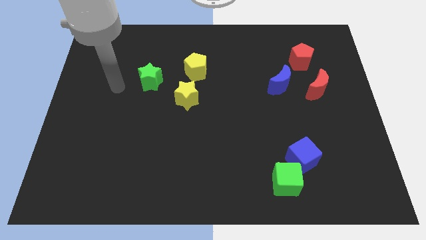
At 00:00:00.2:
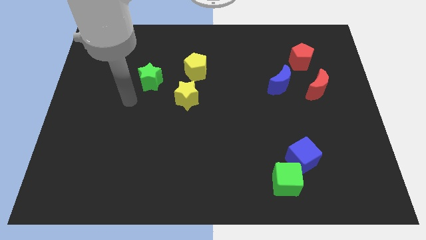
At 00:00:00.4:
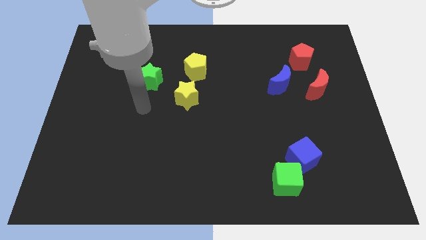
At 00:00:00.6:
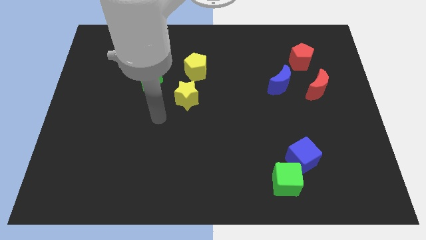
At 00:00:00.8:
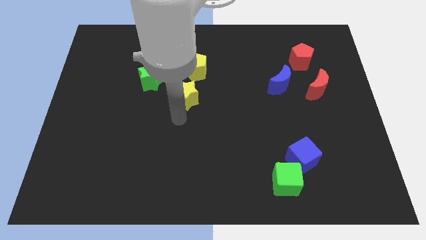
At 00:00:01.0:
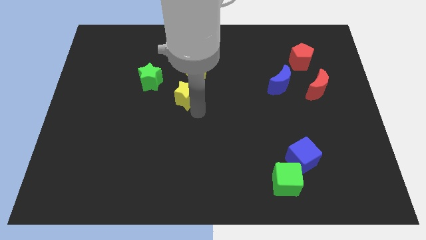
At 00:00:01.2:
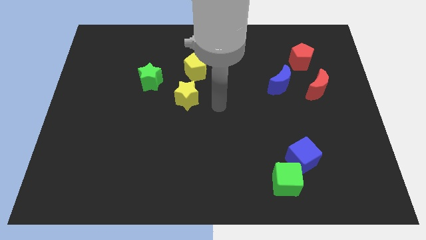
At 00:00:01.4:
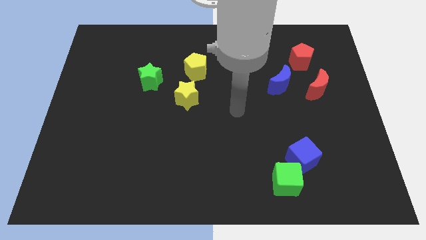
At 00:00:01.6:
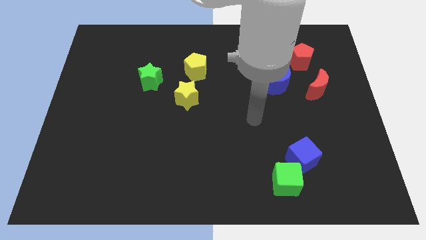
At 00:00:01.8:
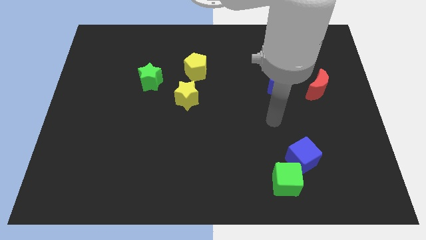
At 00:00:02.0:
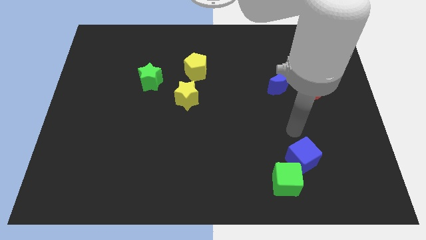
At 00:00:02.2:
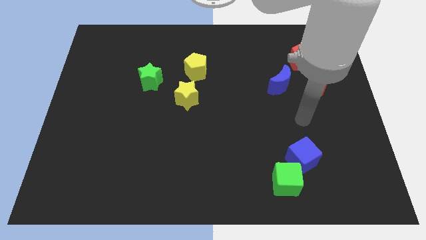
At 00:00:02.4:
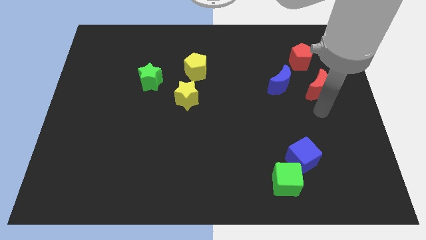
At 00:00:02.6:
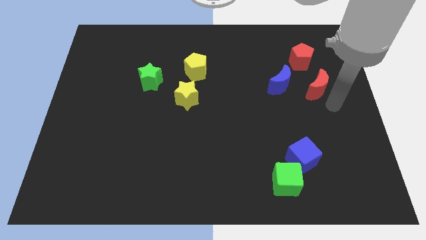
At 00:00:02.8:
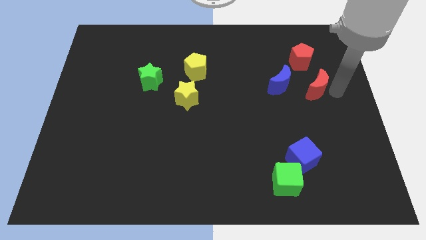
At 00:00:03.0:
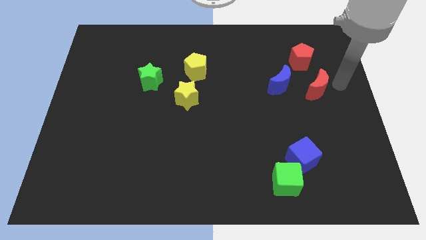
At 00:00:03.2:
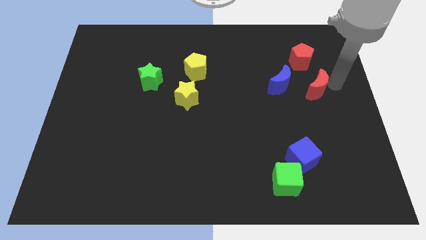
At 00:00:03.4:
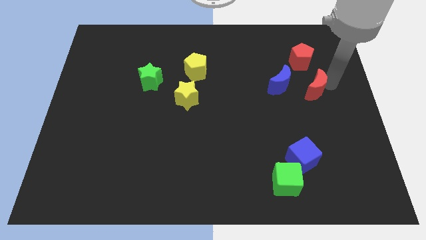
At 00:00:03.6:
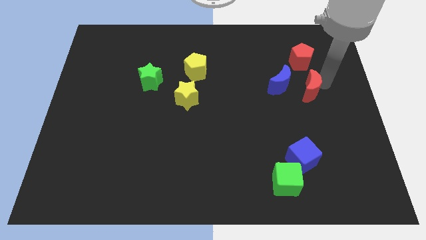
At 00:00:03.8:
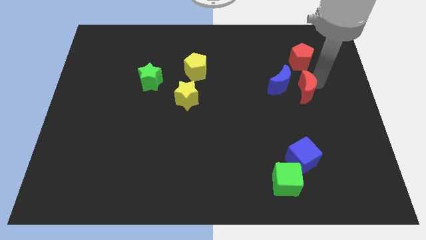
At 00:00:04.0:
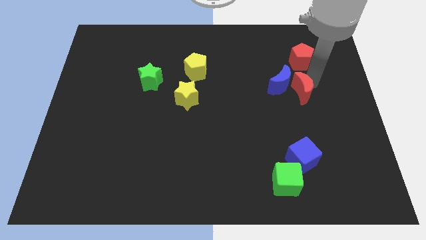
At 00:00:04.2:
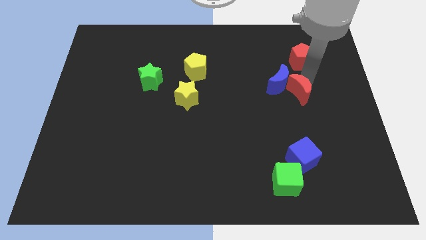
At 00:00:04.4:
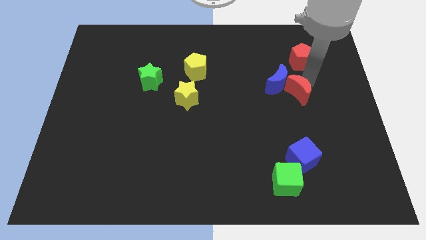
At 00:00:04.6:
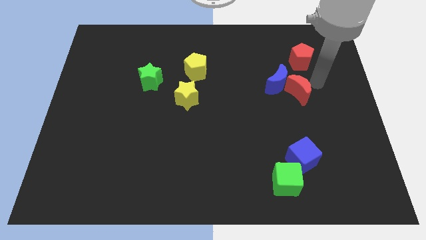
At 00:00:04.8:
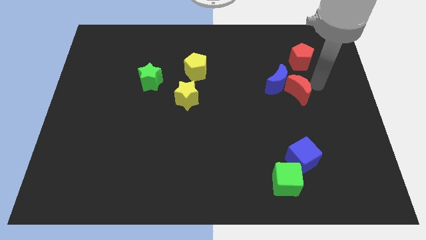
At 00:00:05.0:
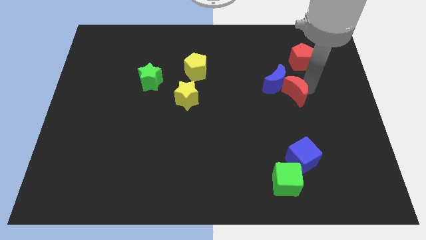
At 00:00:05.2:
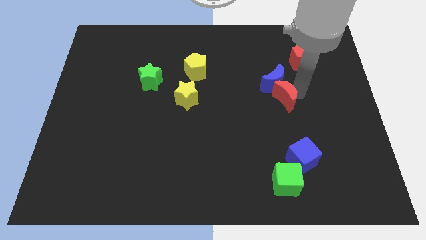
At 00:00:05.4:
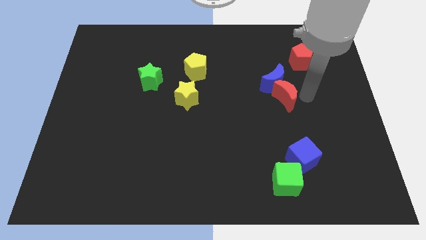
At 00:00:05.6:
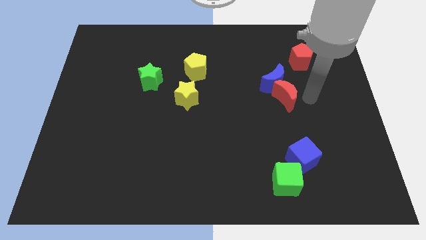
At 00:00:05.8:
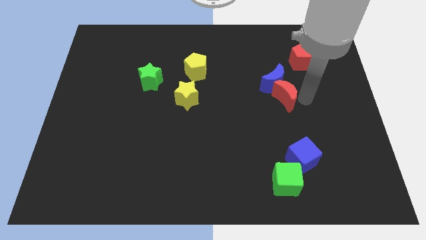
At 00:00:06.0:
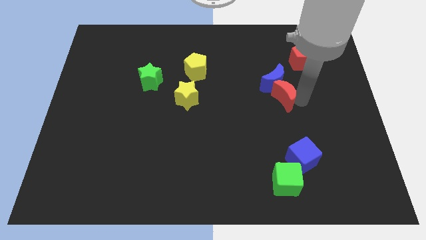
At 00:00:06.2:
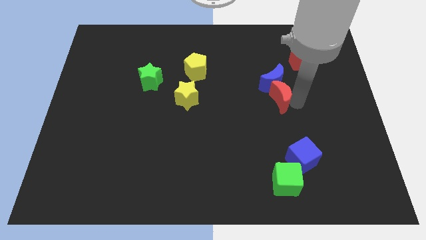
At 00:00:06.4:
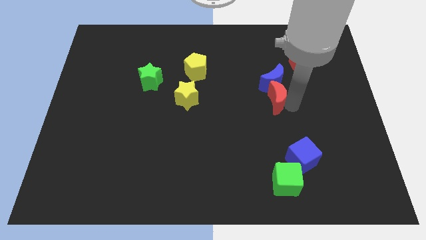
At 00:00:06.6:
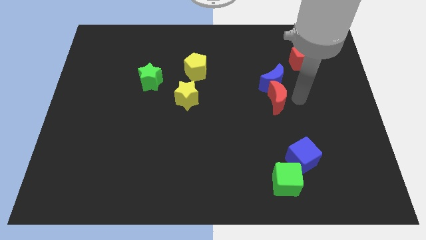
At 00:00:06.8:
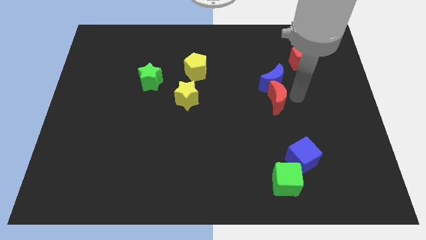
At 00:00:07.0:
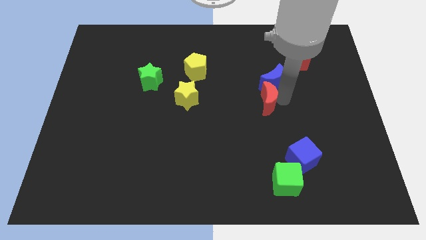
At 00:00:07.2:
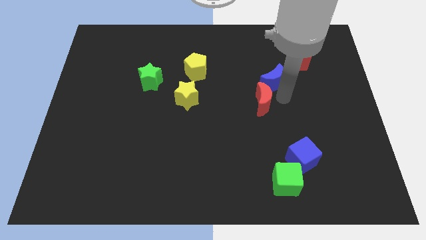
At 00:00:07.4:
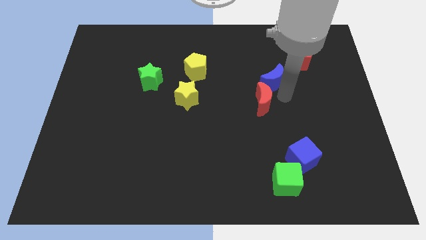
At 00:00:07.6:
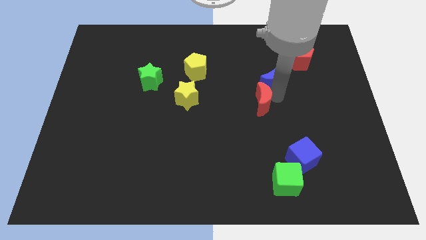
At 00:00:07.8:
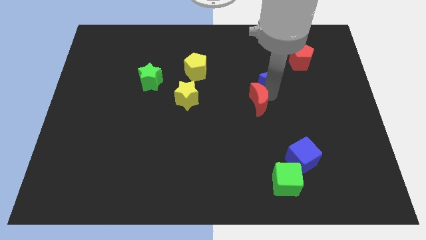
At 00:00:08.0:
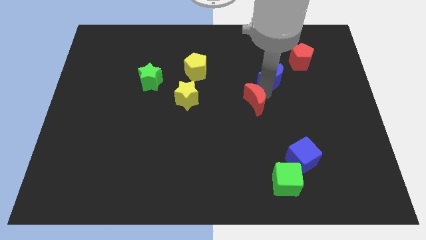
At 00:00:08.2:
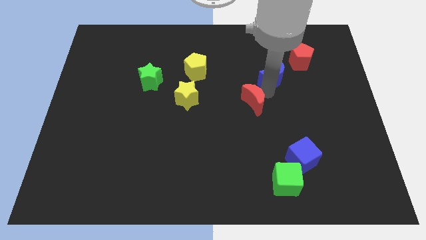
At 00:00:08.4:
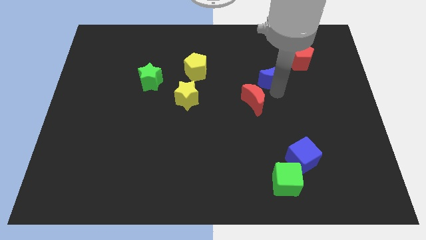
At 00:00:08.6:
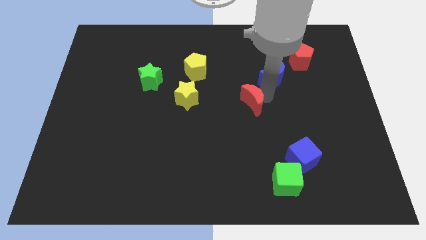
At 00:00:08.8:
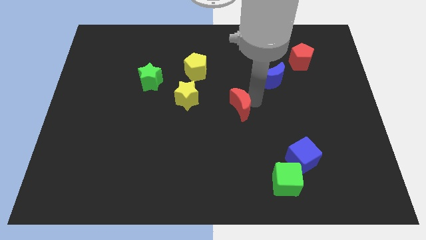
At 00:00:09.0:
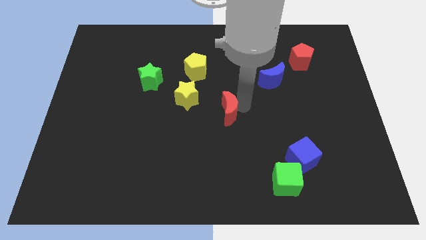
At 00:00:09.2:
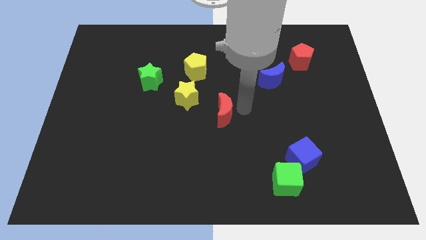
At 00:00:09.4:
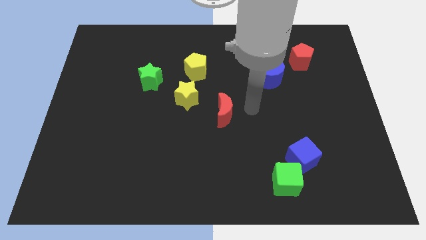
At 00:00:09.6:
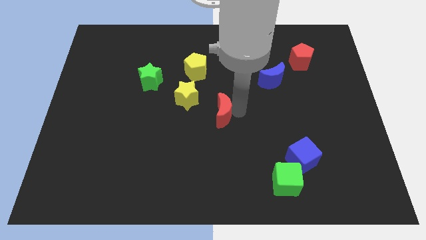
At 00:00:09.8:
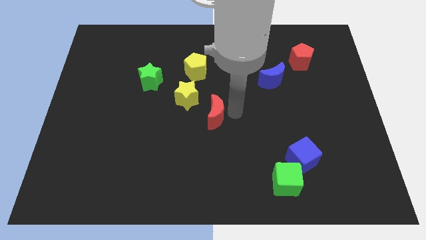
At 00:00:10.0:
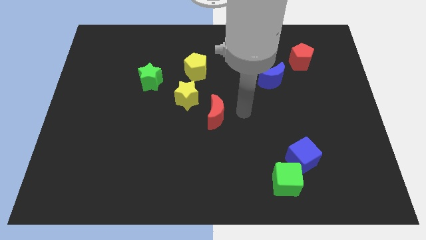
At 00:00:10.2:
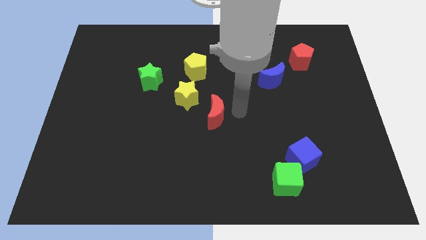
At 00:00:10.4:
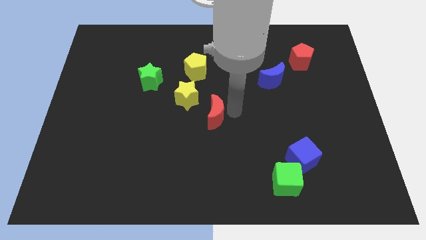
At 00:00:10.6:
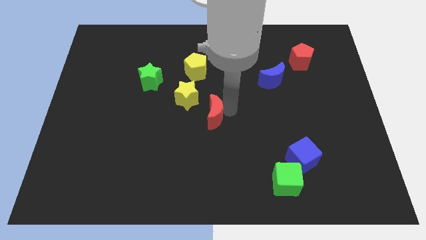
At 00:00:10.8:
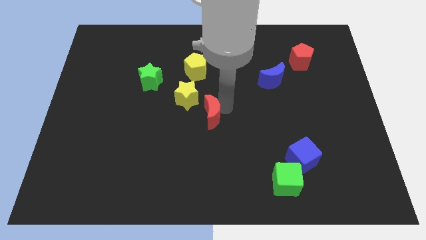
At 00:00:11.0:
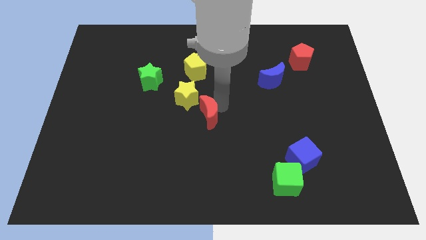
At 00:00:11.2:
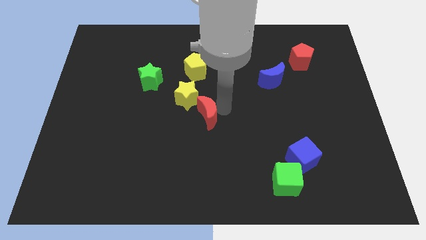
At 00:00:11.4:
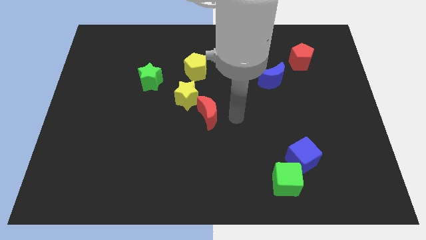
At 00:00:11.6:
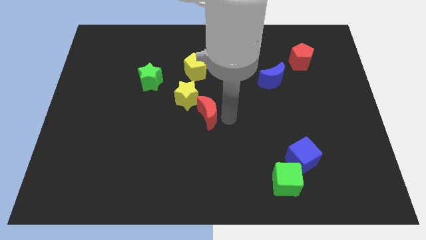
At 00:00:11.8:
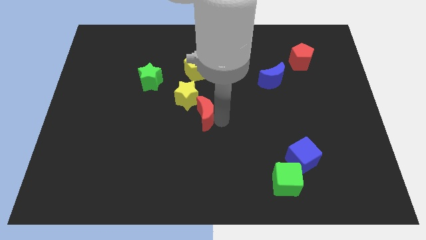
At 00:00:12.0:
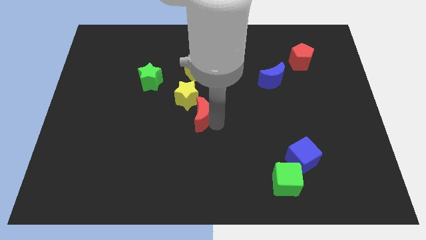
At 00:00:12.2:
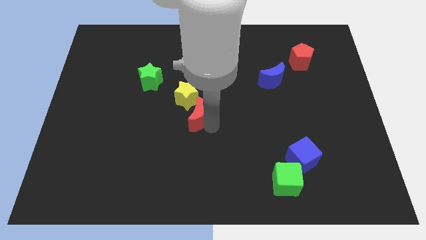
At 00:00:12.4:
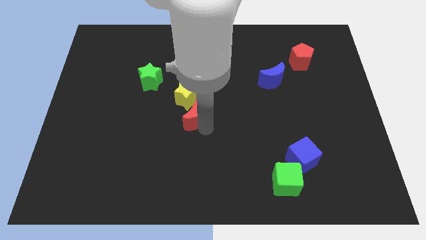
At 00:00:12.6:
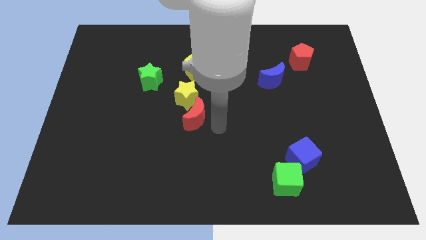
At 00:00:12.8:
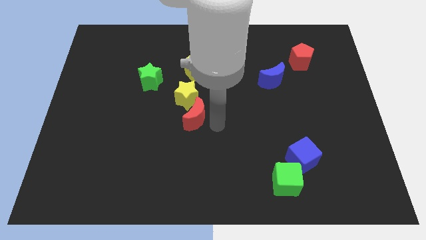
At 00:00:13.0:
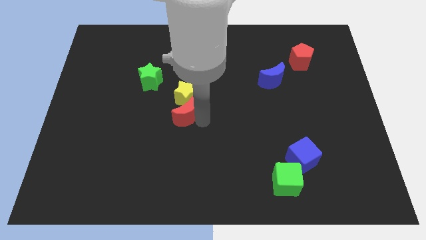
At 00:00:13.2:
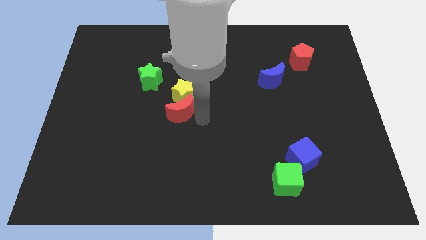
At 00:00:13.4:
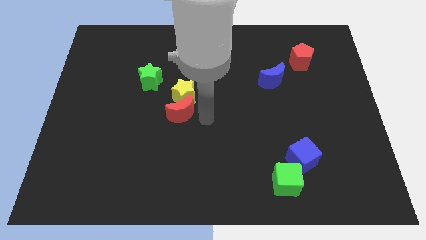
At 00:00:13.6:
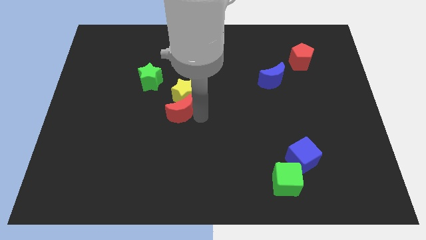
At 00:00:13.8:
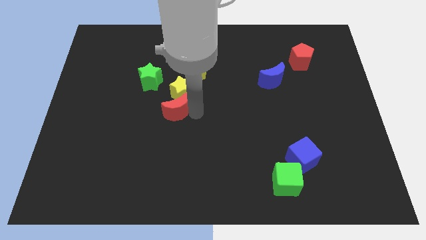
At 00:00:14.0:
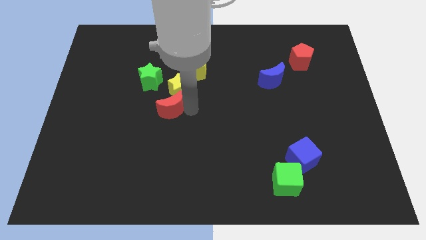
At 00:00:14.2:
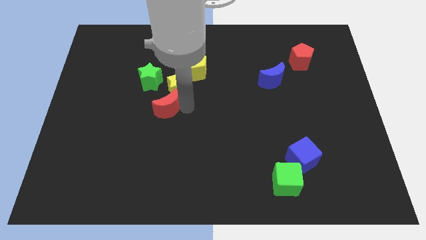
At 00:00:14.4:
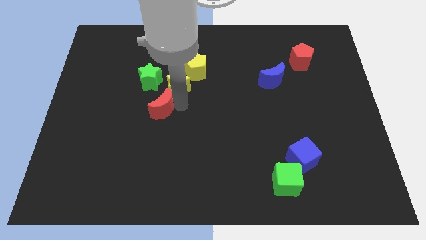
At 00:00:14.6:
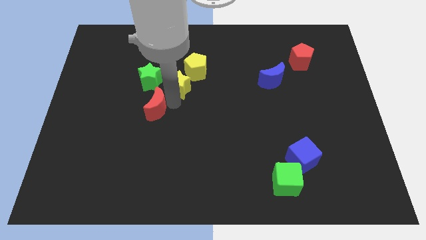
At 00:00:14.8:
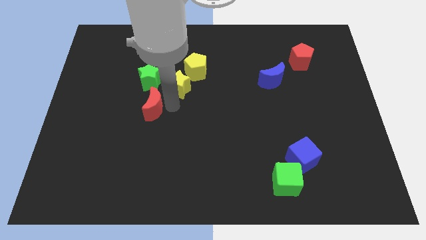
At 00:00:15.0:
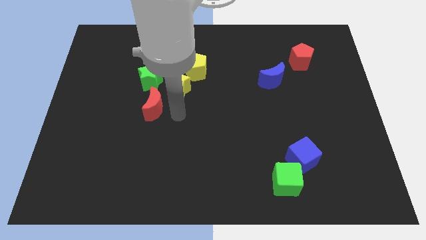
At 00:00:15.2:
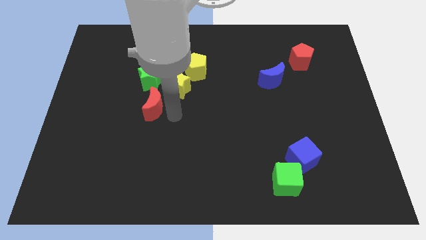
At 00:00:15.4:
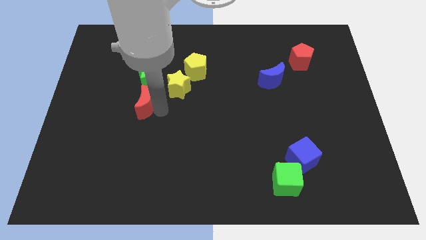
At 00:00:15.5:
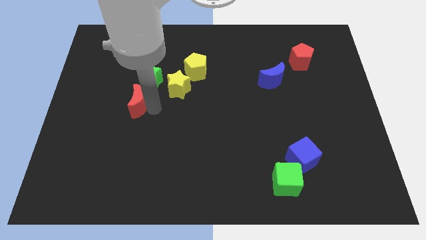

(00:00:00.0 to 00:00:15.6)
move the red moon to the bottom left side of the green star
